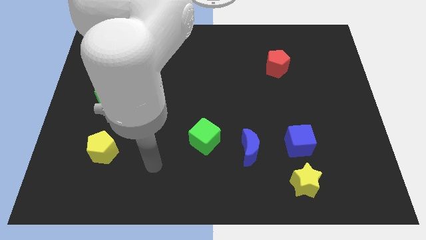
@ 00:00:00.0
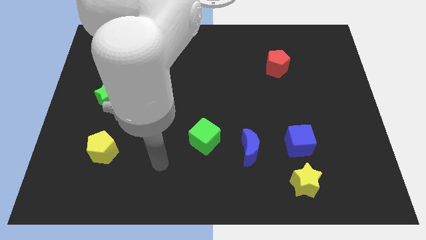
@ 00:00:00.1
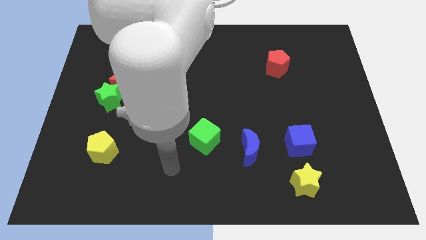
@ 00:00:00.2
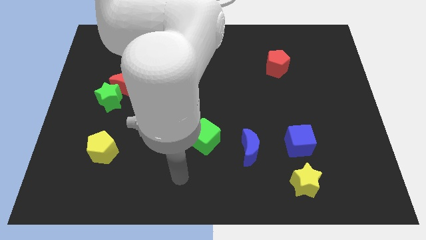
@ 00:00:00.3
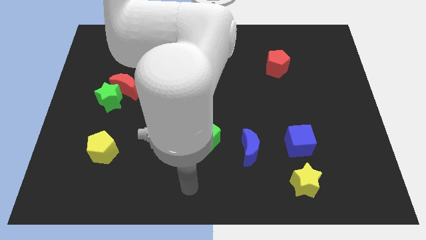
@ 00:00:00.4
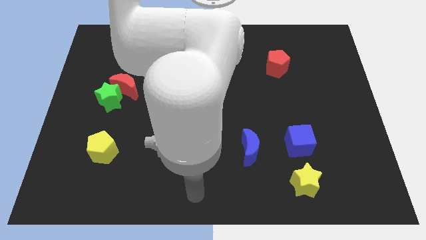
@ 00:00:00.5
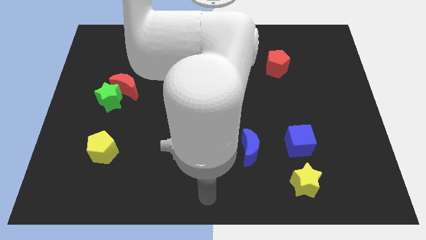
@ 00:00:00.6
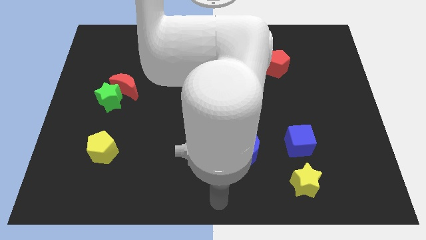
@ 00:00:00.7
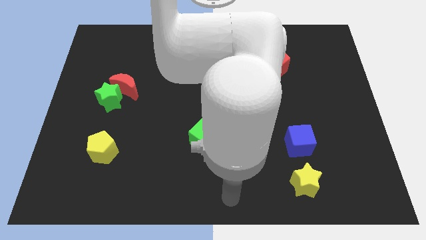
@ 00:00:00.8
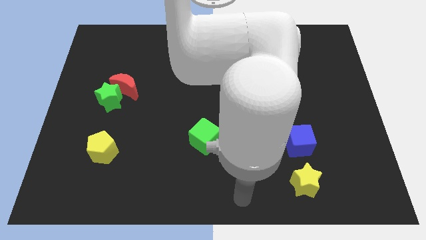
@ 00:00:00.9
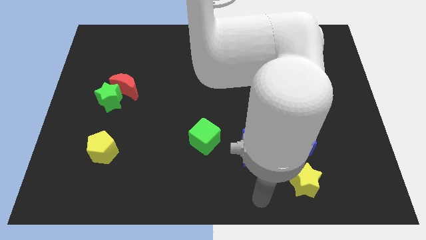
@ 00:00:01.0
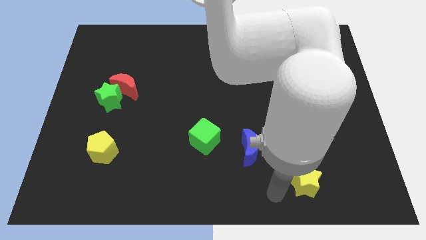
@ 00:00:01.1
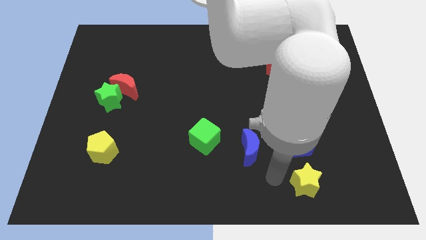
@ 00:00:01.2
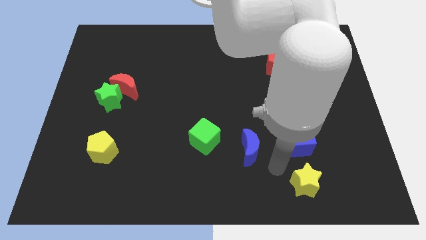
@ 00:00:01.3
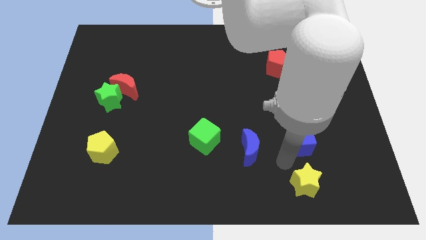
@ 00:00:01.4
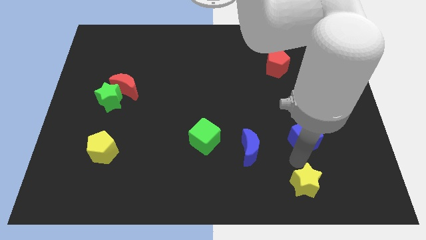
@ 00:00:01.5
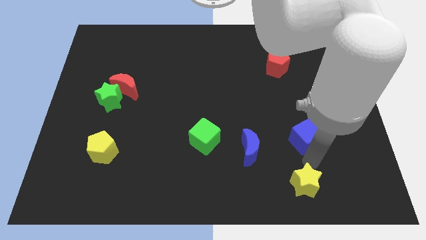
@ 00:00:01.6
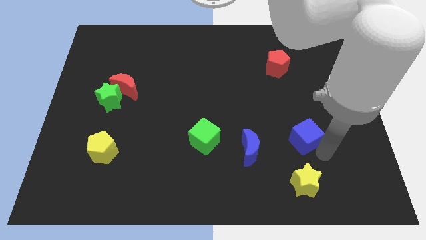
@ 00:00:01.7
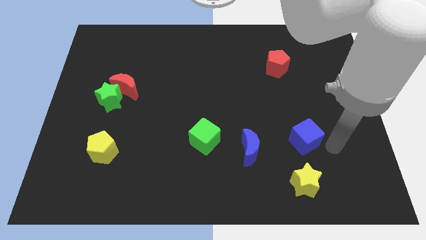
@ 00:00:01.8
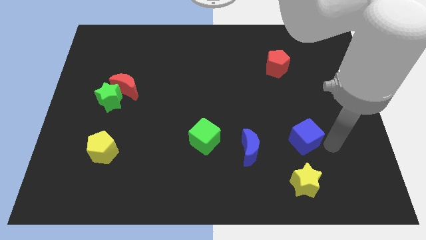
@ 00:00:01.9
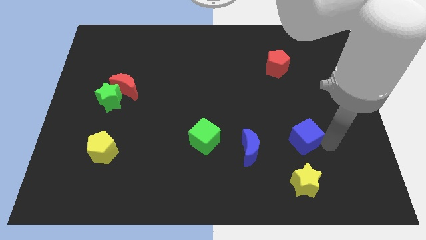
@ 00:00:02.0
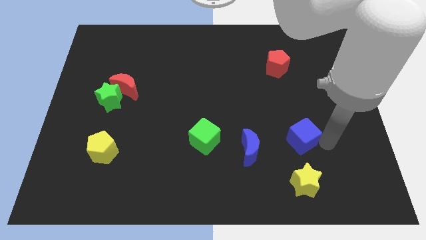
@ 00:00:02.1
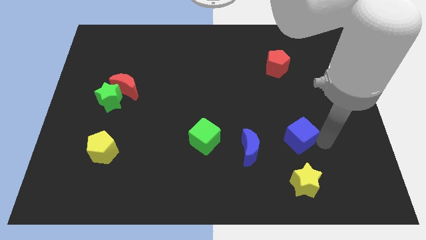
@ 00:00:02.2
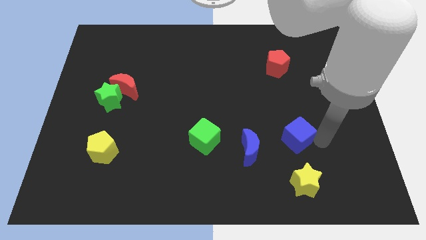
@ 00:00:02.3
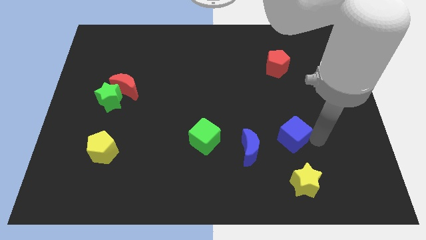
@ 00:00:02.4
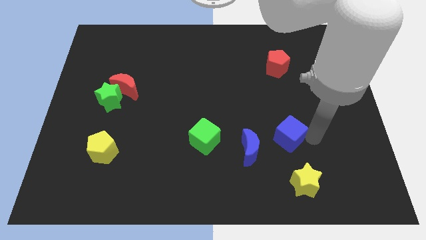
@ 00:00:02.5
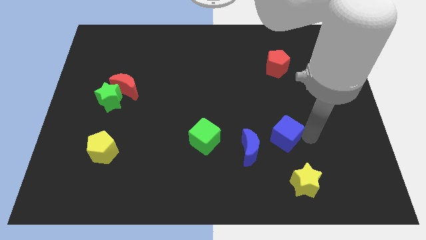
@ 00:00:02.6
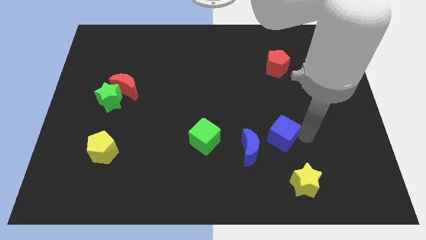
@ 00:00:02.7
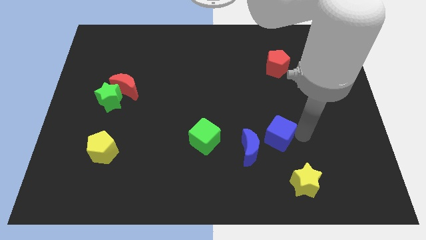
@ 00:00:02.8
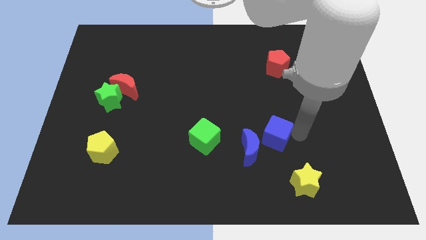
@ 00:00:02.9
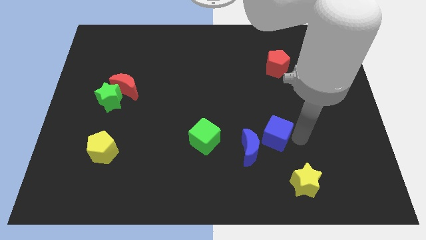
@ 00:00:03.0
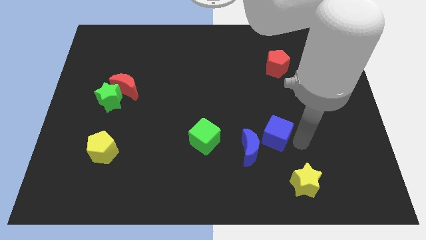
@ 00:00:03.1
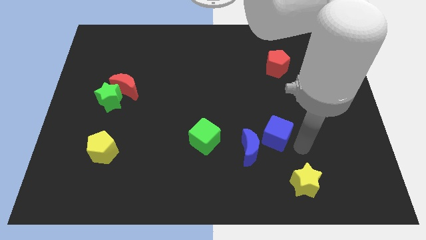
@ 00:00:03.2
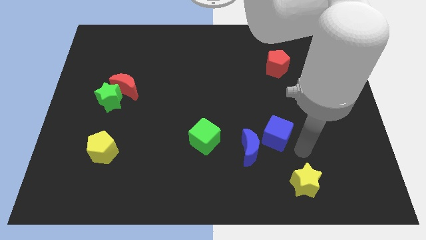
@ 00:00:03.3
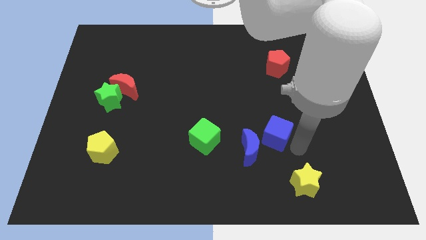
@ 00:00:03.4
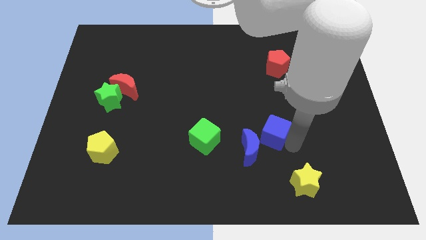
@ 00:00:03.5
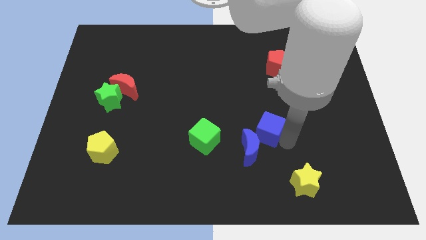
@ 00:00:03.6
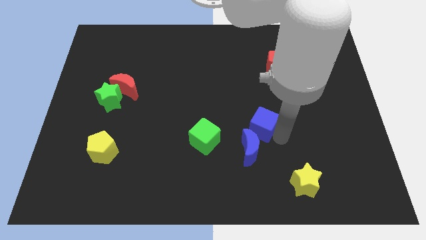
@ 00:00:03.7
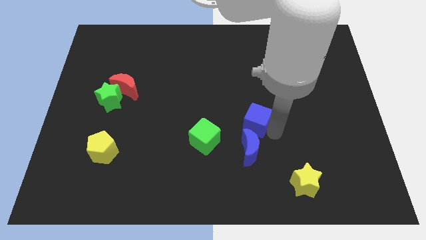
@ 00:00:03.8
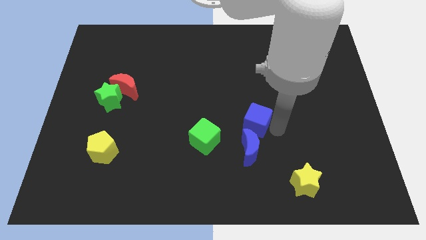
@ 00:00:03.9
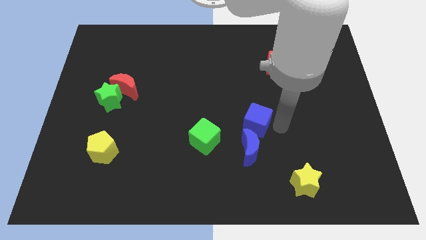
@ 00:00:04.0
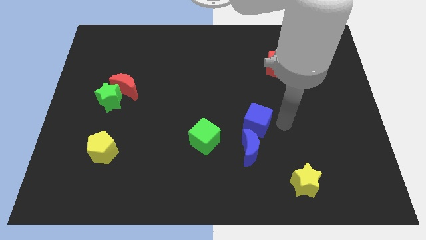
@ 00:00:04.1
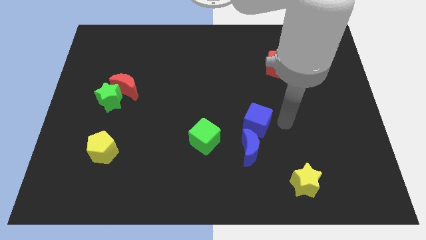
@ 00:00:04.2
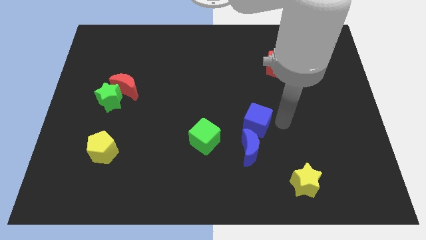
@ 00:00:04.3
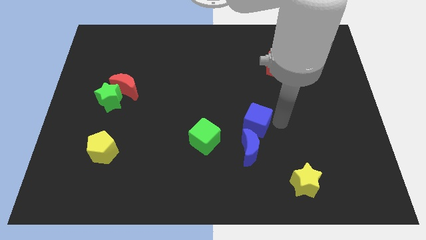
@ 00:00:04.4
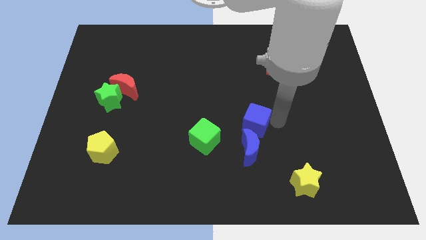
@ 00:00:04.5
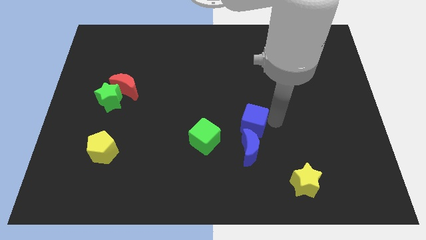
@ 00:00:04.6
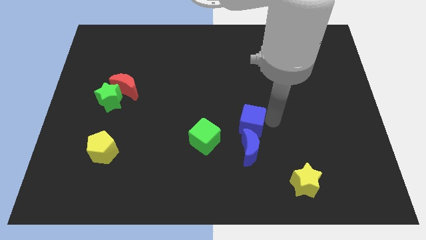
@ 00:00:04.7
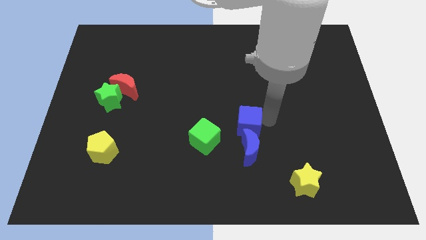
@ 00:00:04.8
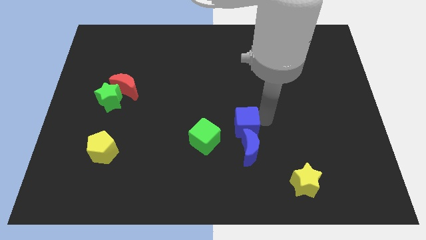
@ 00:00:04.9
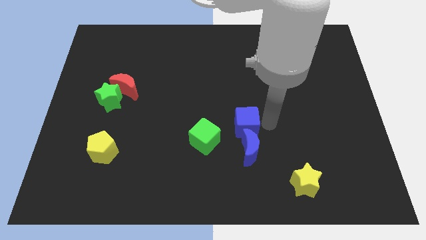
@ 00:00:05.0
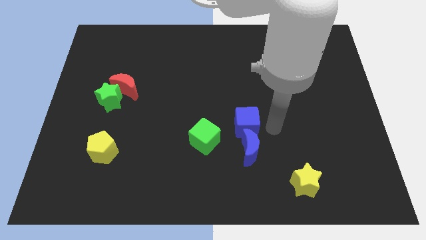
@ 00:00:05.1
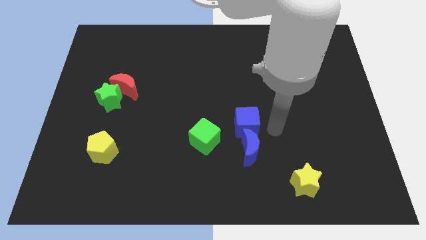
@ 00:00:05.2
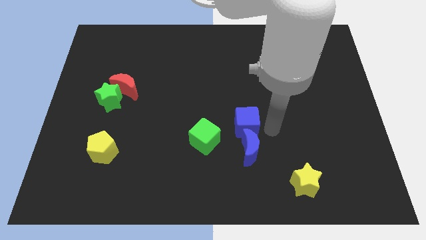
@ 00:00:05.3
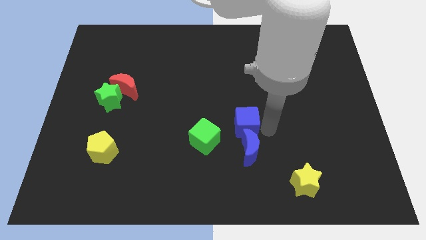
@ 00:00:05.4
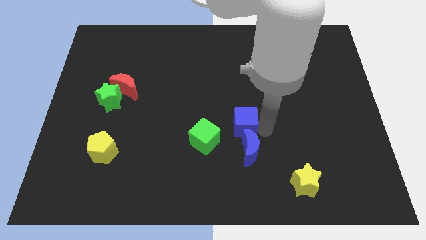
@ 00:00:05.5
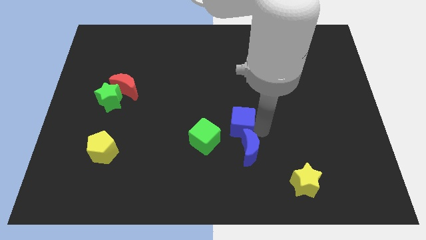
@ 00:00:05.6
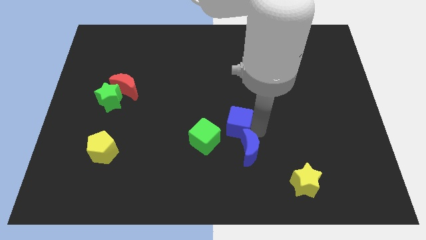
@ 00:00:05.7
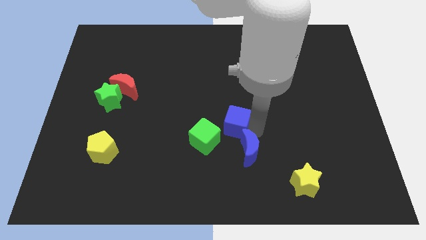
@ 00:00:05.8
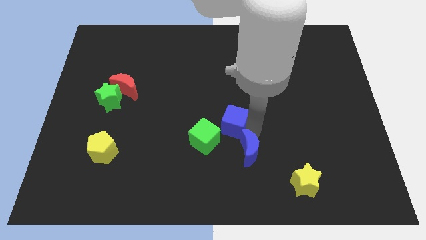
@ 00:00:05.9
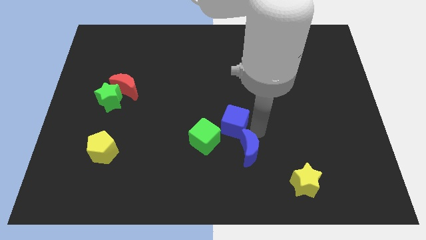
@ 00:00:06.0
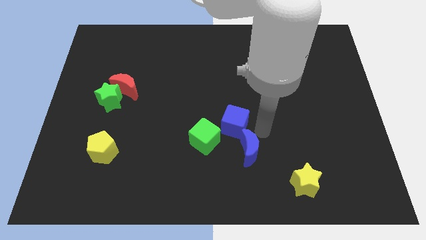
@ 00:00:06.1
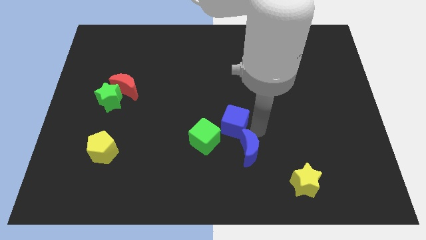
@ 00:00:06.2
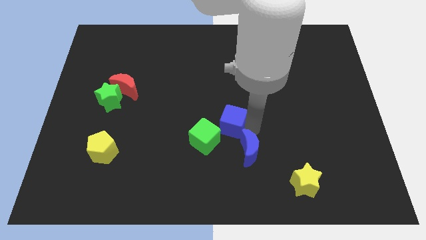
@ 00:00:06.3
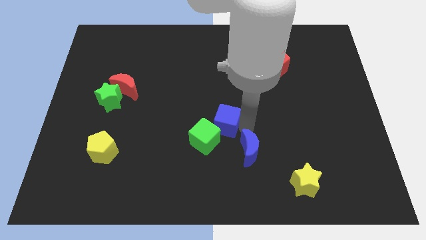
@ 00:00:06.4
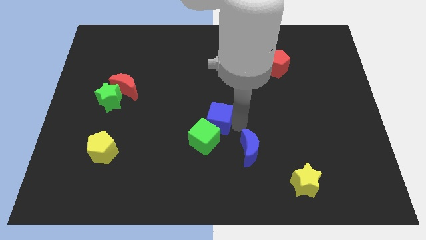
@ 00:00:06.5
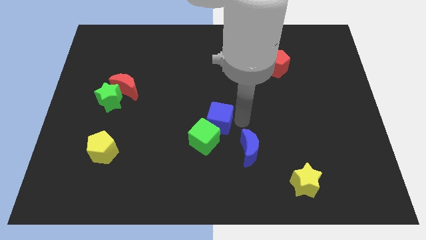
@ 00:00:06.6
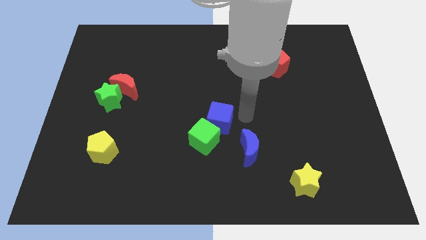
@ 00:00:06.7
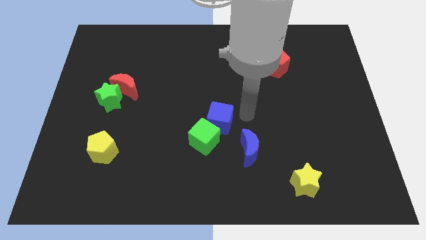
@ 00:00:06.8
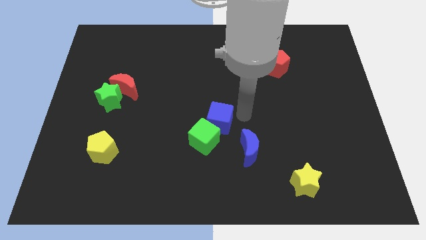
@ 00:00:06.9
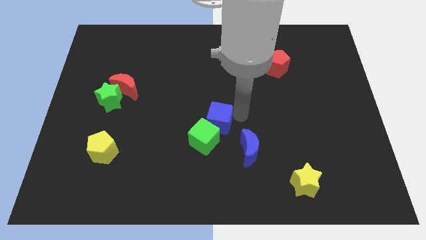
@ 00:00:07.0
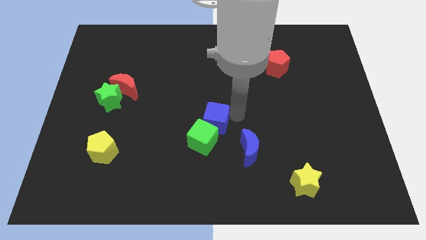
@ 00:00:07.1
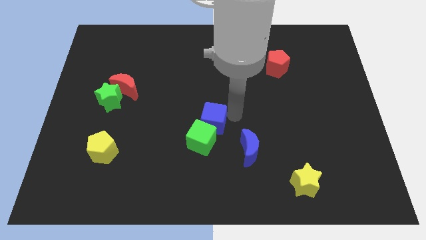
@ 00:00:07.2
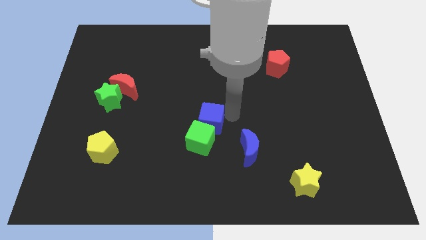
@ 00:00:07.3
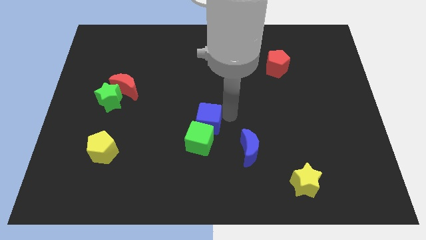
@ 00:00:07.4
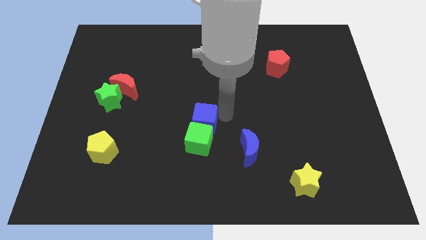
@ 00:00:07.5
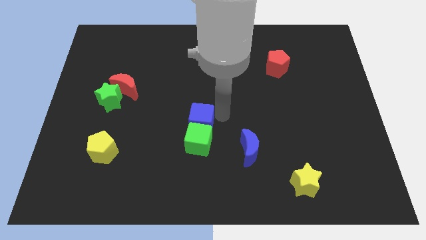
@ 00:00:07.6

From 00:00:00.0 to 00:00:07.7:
slide the blue cube to the left

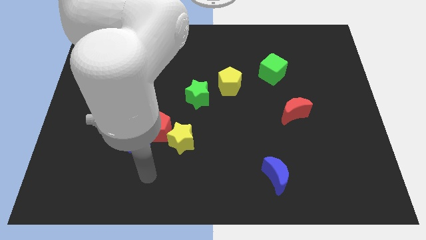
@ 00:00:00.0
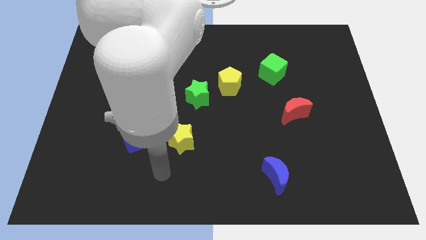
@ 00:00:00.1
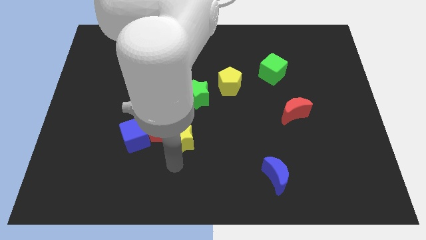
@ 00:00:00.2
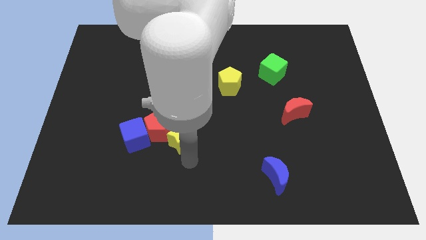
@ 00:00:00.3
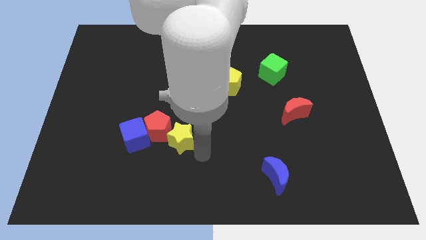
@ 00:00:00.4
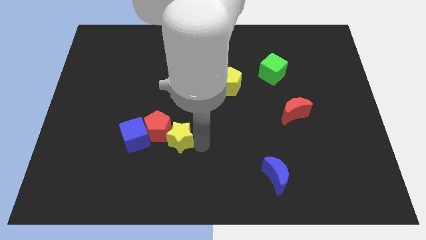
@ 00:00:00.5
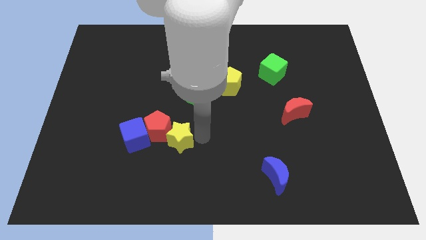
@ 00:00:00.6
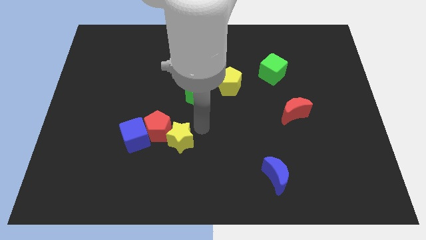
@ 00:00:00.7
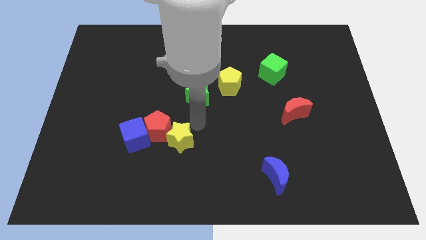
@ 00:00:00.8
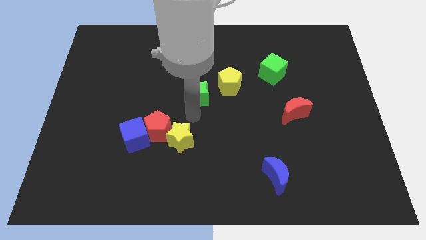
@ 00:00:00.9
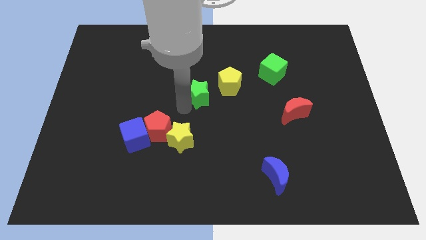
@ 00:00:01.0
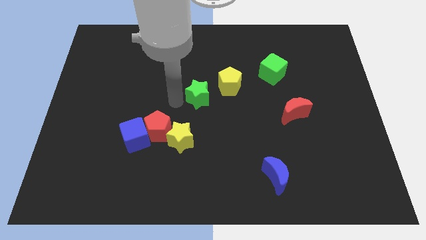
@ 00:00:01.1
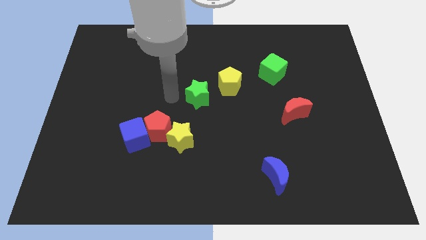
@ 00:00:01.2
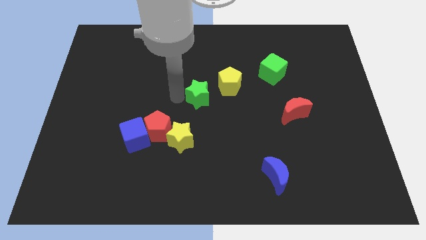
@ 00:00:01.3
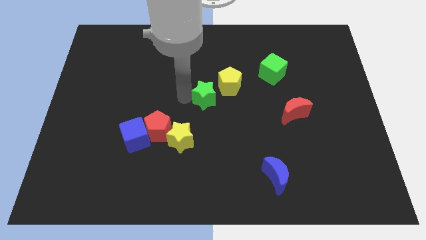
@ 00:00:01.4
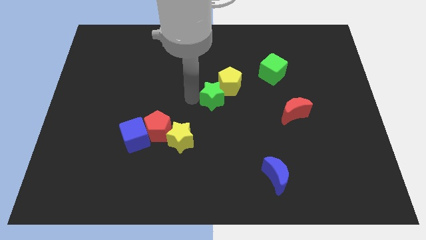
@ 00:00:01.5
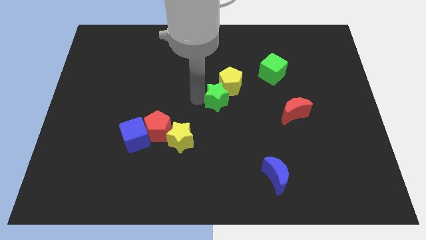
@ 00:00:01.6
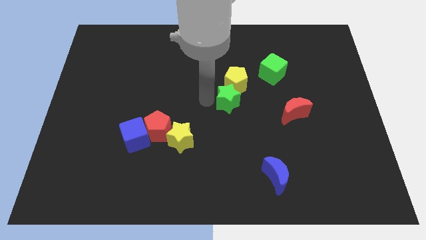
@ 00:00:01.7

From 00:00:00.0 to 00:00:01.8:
push the green star to the right somewhat
